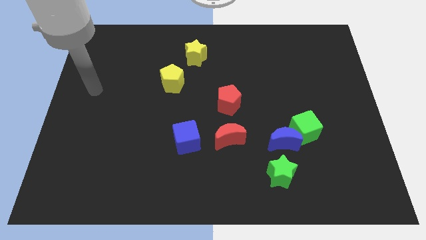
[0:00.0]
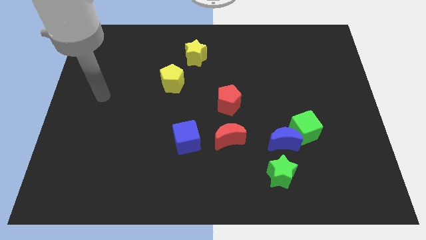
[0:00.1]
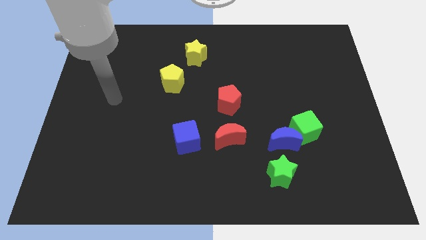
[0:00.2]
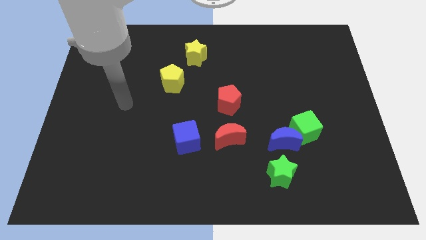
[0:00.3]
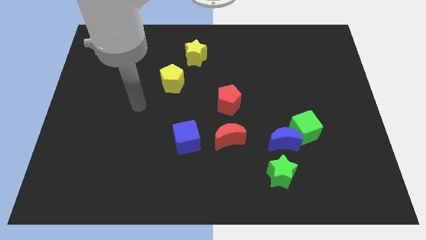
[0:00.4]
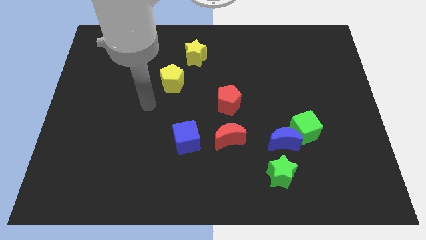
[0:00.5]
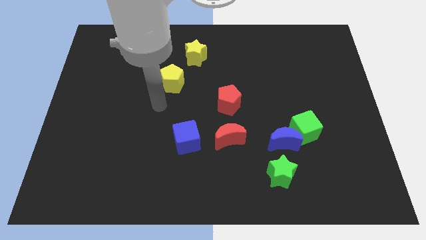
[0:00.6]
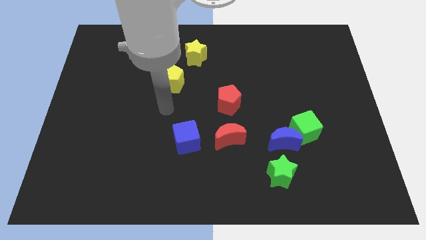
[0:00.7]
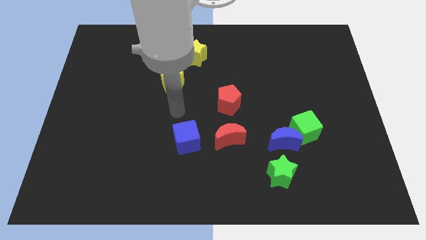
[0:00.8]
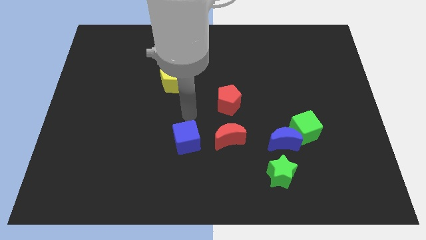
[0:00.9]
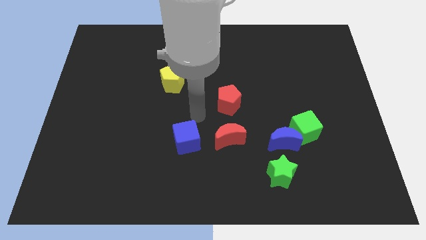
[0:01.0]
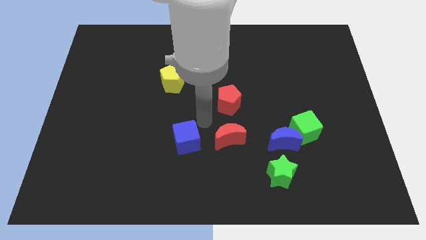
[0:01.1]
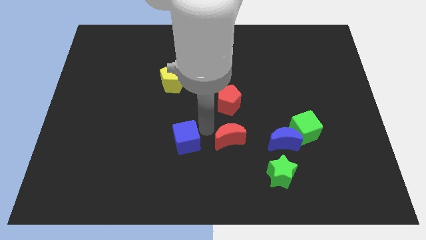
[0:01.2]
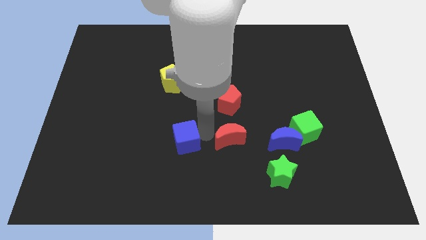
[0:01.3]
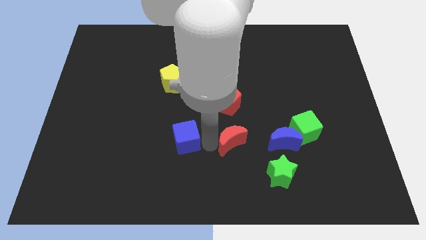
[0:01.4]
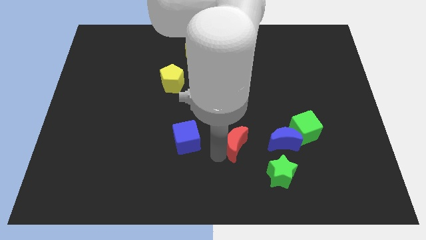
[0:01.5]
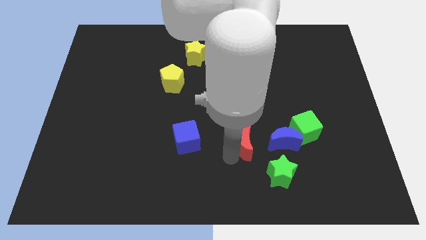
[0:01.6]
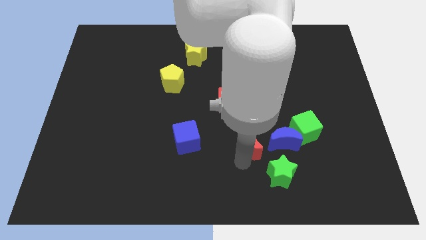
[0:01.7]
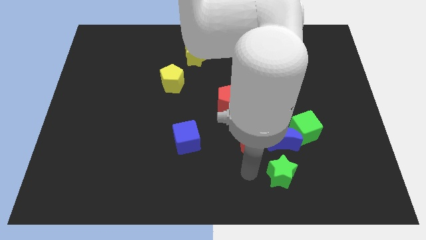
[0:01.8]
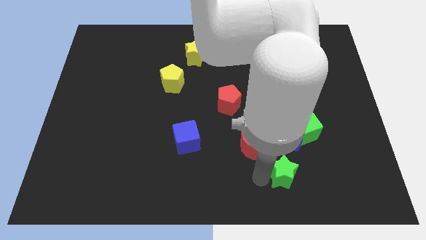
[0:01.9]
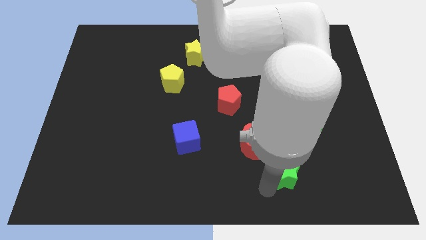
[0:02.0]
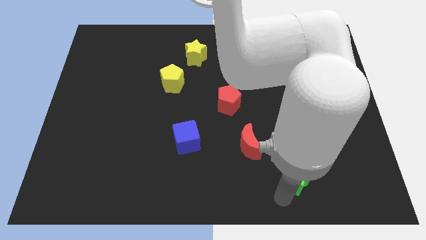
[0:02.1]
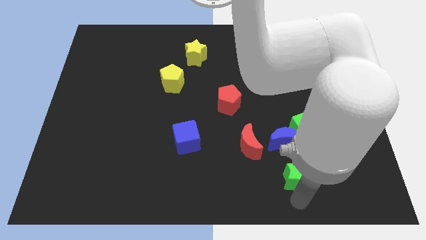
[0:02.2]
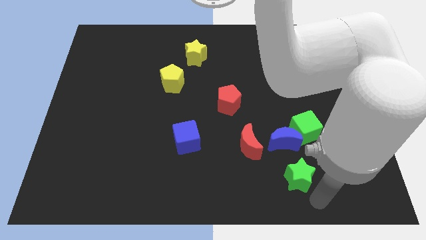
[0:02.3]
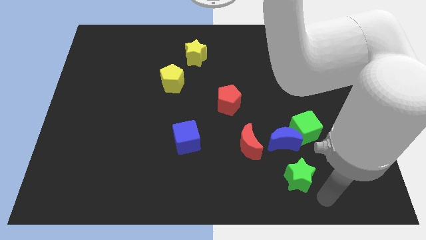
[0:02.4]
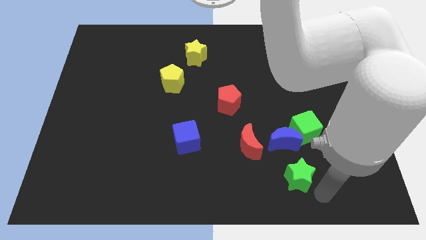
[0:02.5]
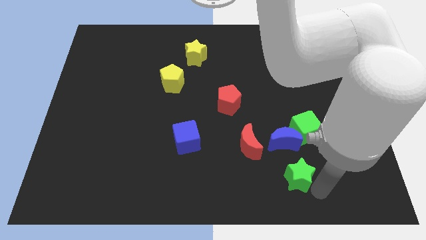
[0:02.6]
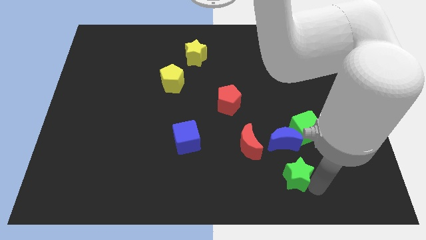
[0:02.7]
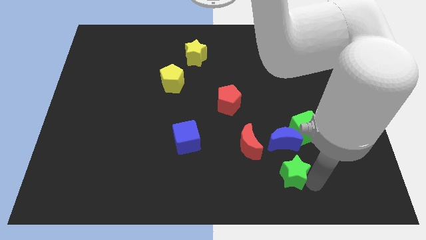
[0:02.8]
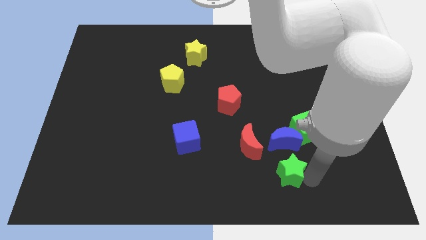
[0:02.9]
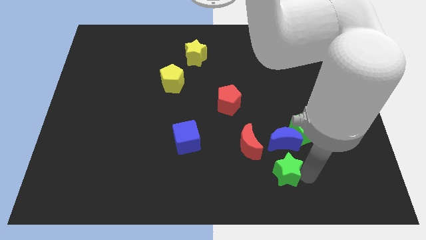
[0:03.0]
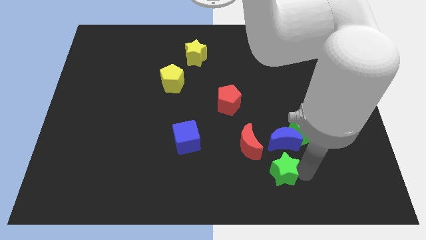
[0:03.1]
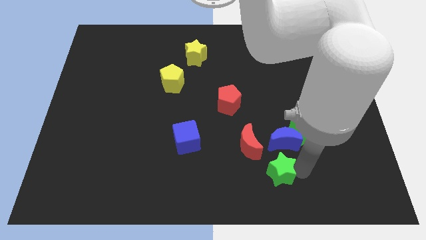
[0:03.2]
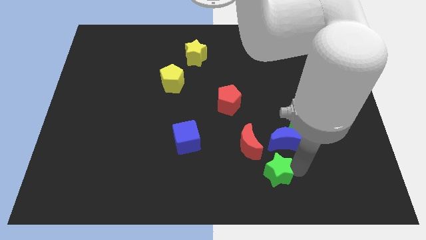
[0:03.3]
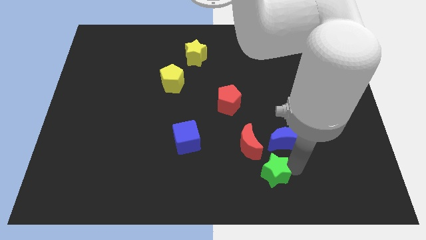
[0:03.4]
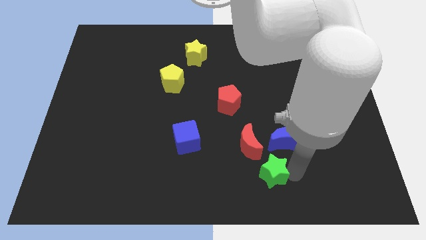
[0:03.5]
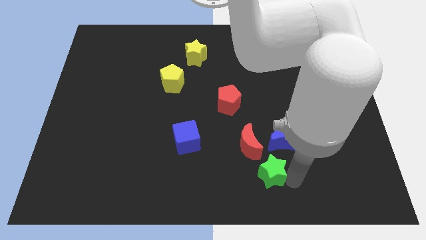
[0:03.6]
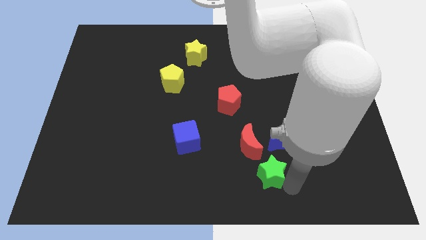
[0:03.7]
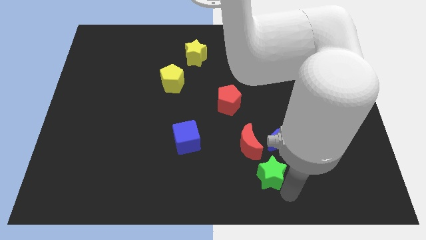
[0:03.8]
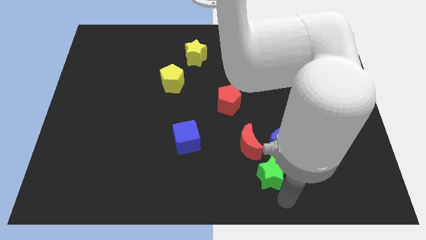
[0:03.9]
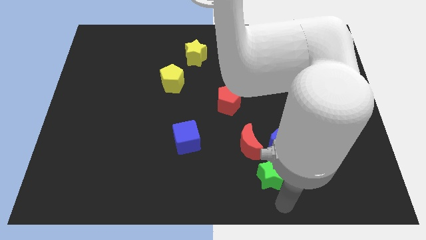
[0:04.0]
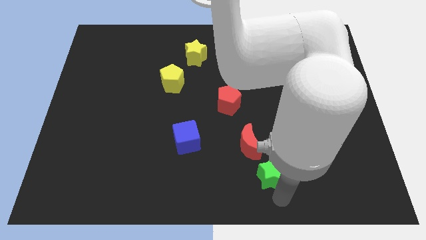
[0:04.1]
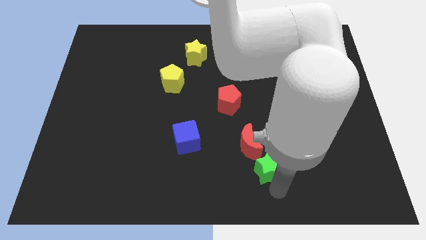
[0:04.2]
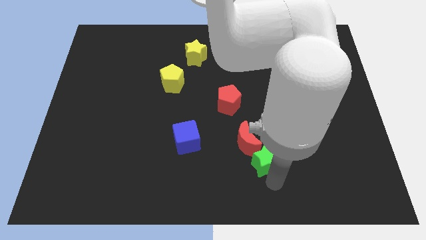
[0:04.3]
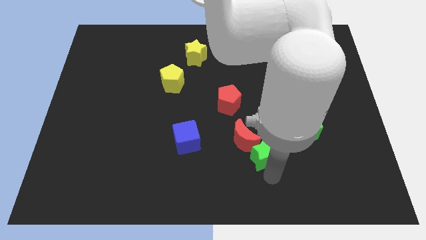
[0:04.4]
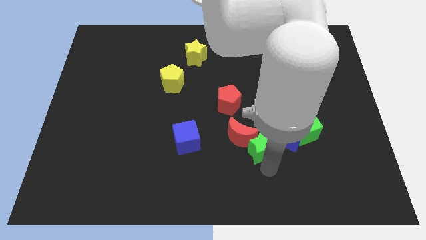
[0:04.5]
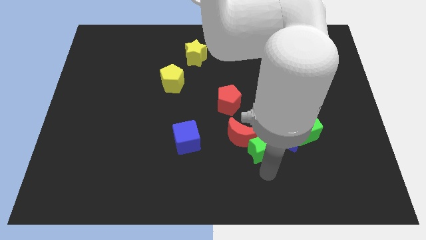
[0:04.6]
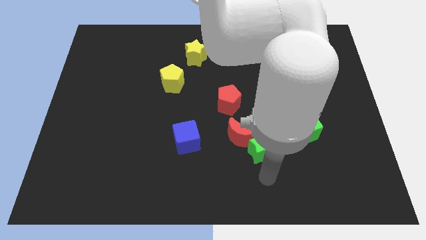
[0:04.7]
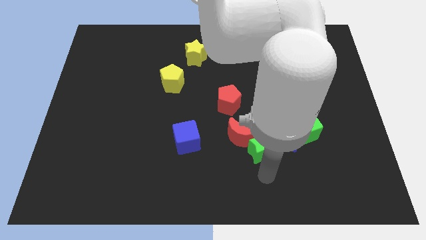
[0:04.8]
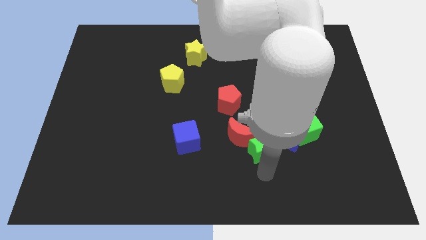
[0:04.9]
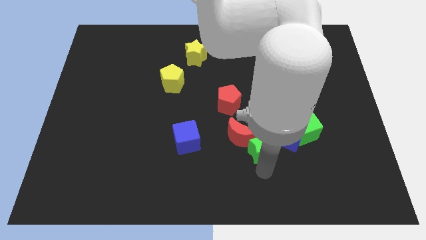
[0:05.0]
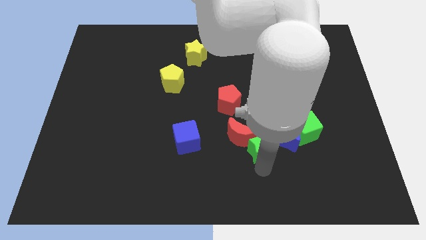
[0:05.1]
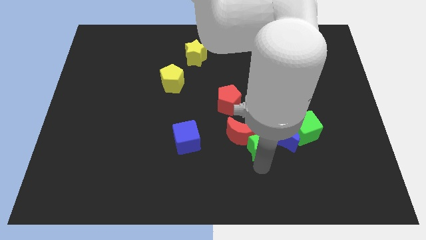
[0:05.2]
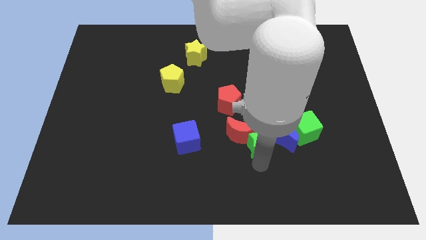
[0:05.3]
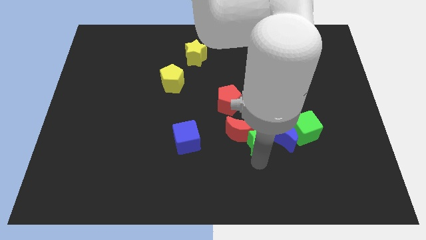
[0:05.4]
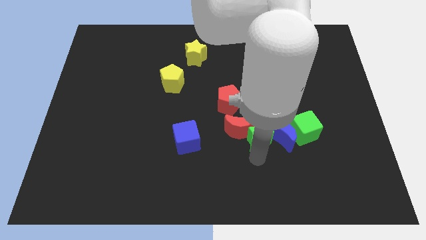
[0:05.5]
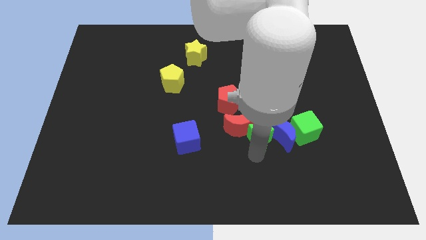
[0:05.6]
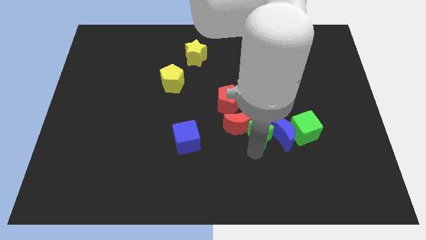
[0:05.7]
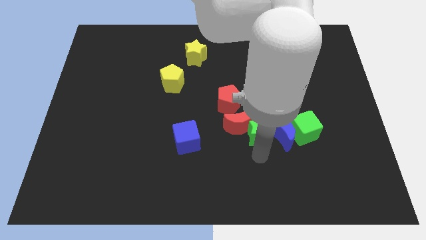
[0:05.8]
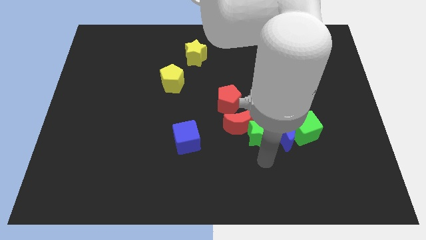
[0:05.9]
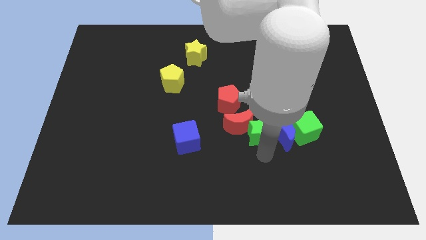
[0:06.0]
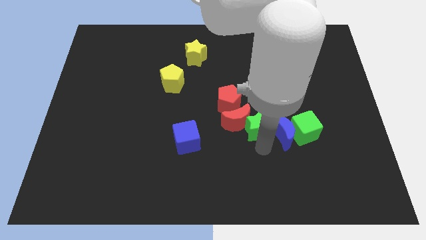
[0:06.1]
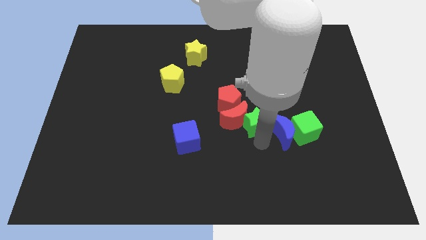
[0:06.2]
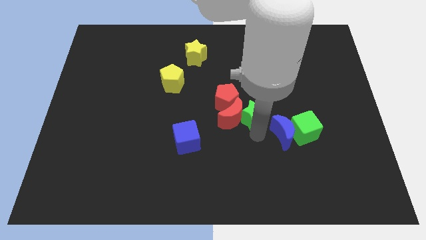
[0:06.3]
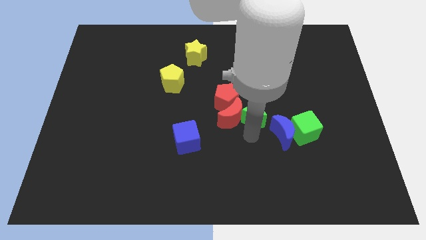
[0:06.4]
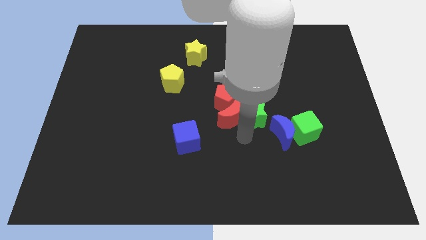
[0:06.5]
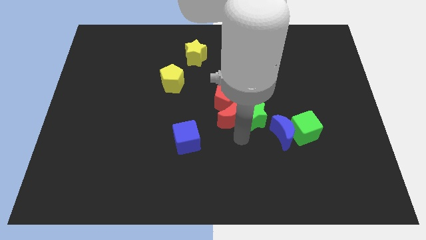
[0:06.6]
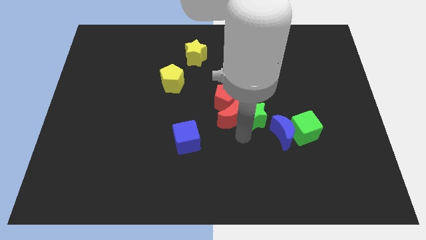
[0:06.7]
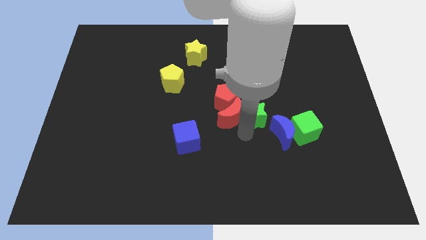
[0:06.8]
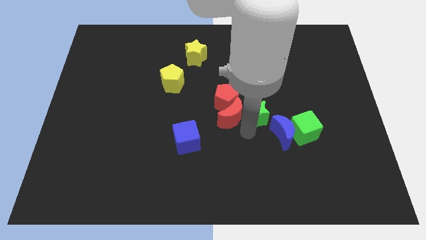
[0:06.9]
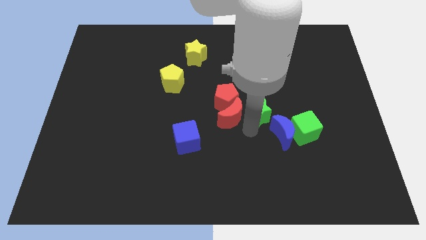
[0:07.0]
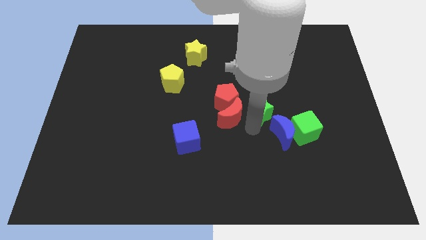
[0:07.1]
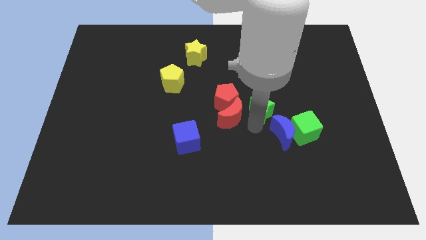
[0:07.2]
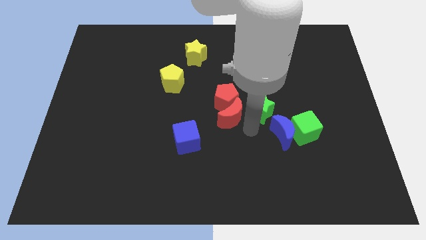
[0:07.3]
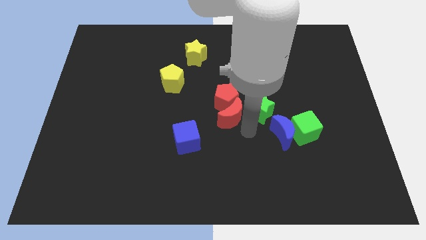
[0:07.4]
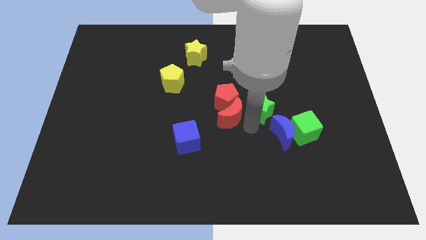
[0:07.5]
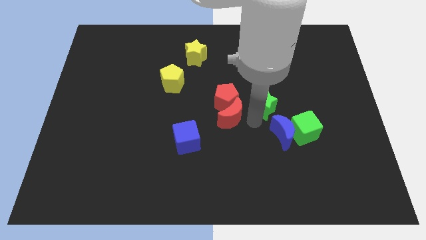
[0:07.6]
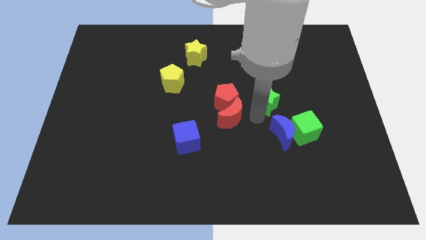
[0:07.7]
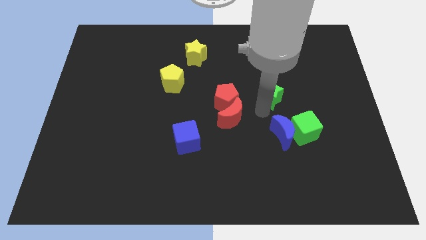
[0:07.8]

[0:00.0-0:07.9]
move the green star up

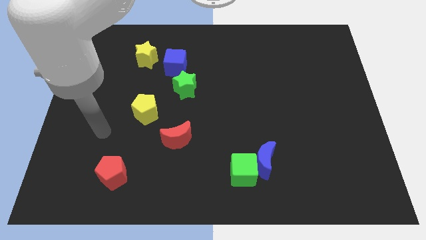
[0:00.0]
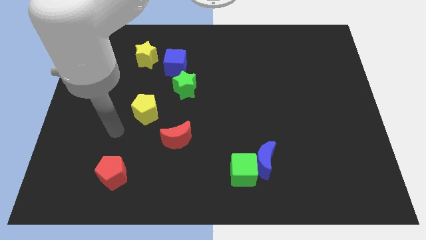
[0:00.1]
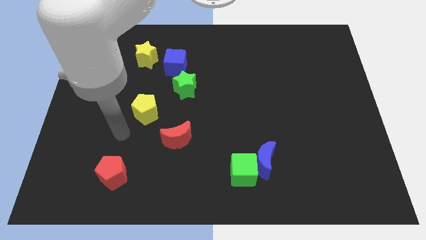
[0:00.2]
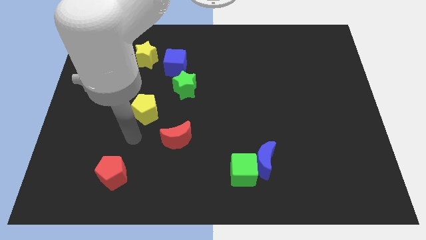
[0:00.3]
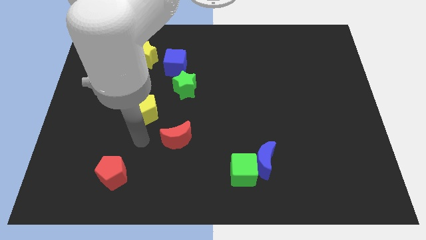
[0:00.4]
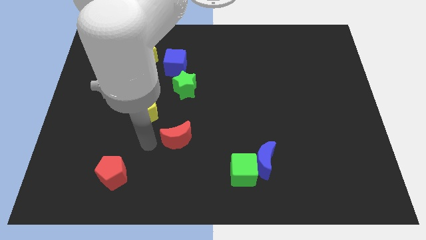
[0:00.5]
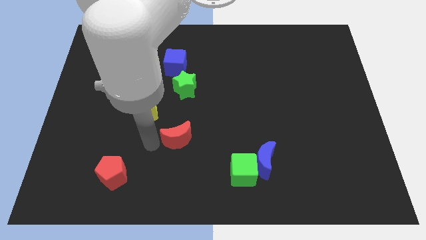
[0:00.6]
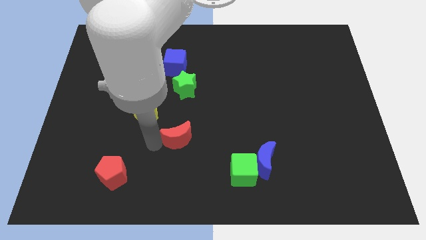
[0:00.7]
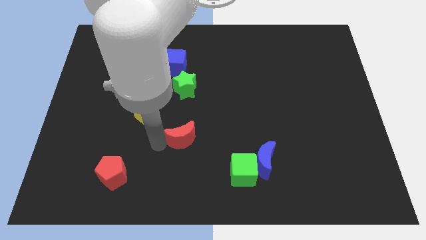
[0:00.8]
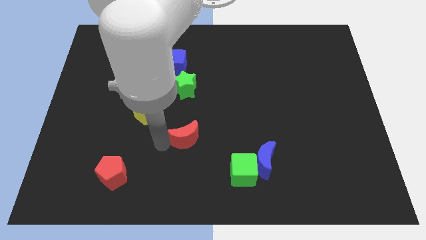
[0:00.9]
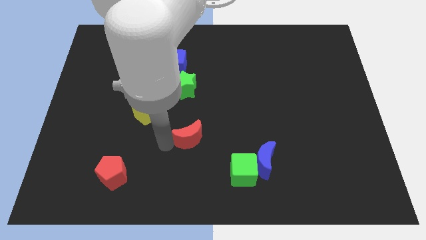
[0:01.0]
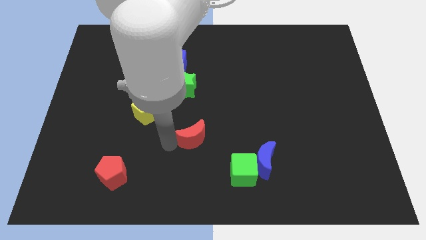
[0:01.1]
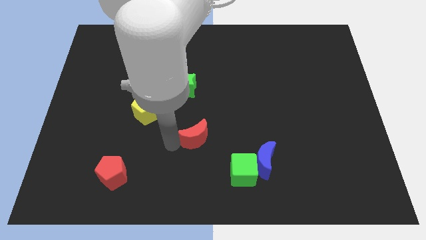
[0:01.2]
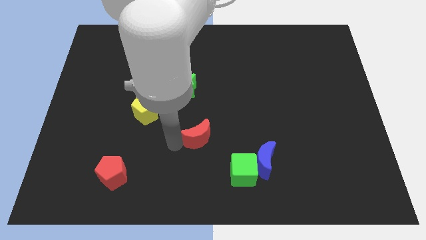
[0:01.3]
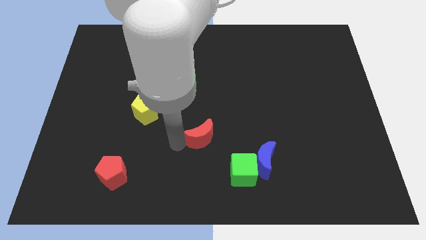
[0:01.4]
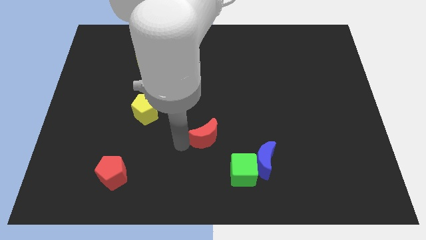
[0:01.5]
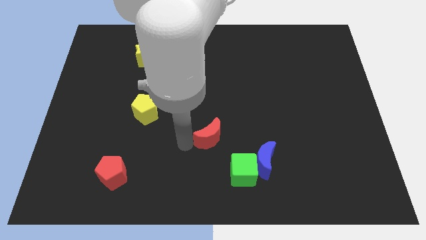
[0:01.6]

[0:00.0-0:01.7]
slide the red moon slightly right
